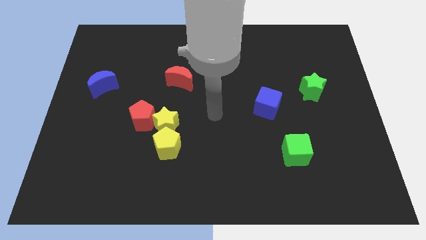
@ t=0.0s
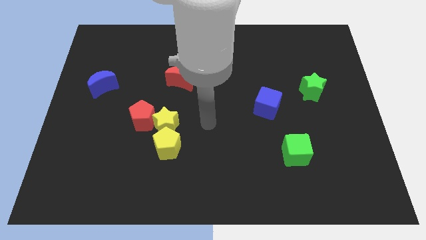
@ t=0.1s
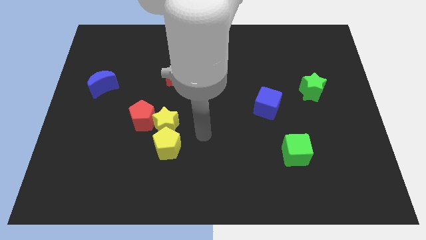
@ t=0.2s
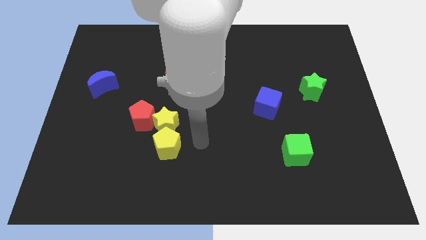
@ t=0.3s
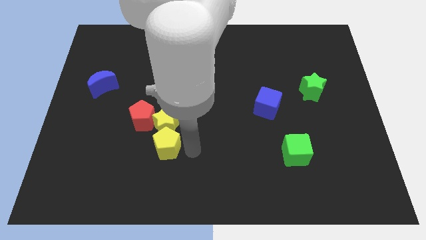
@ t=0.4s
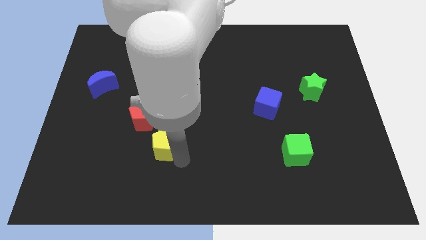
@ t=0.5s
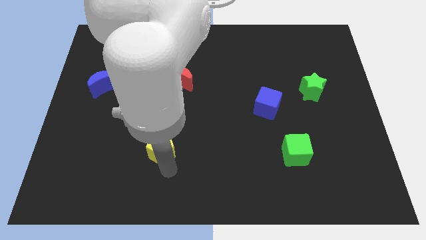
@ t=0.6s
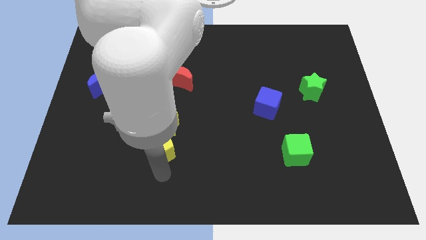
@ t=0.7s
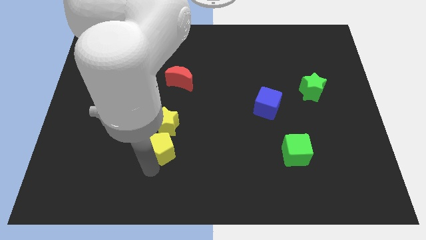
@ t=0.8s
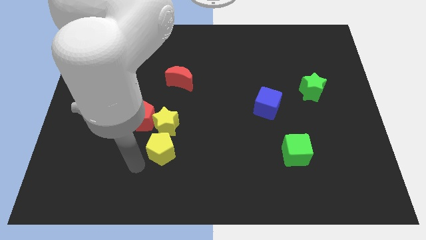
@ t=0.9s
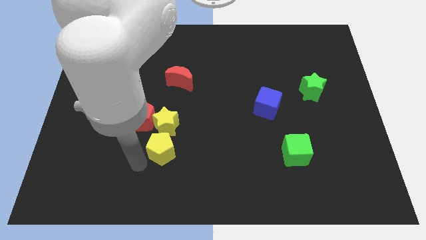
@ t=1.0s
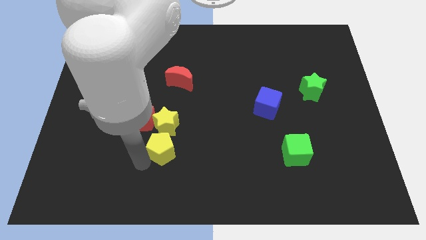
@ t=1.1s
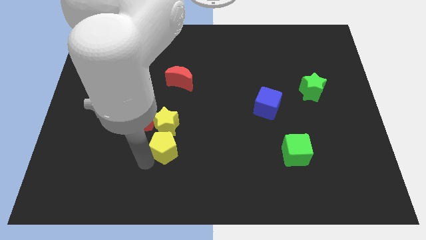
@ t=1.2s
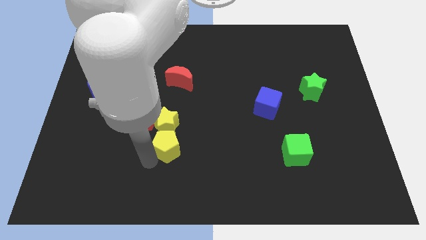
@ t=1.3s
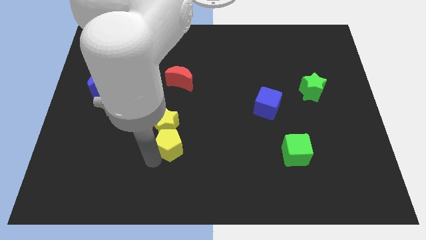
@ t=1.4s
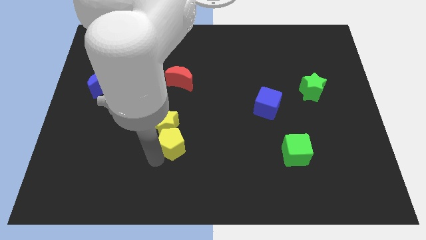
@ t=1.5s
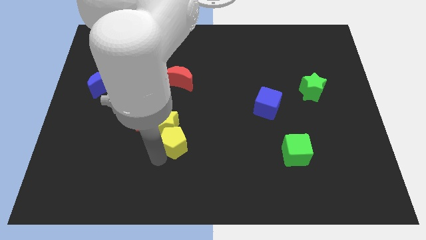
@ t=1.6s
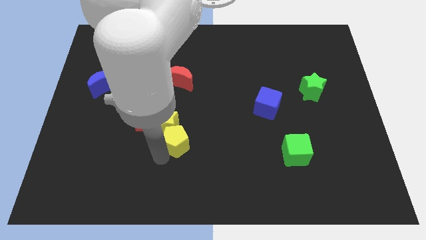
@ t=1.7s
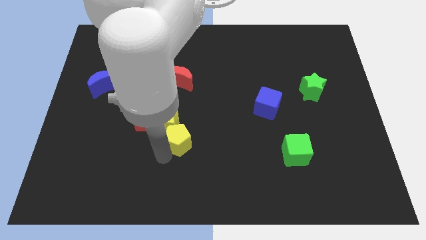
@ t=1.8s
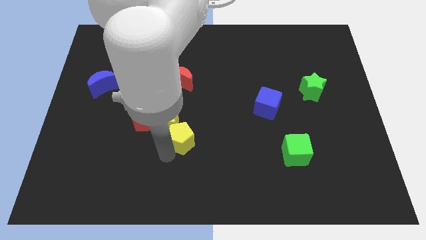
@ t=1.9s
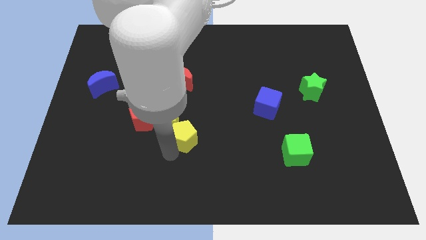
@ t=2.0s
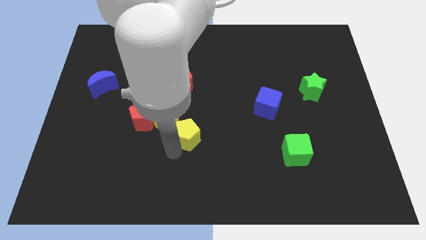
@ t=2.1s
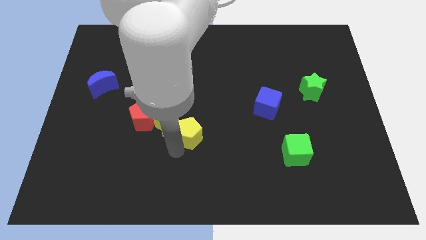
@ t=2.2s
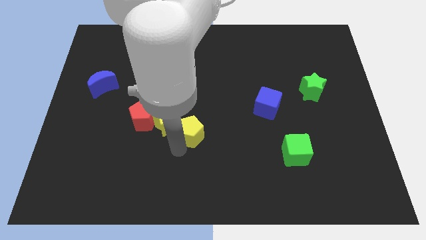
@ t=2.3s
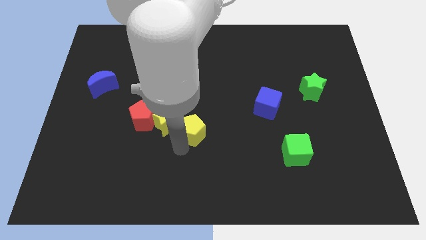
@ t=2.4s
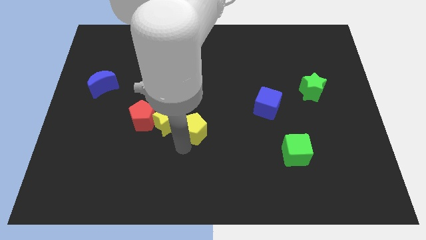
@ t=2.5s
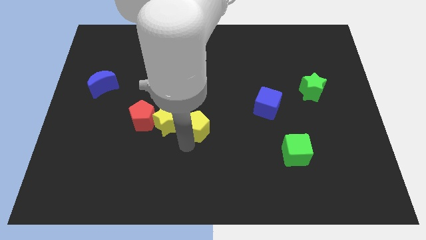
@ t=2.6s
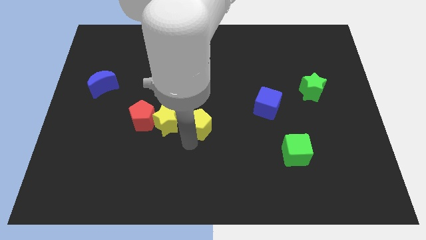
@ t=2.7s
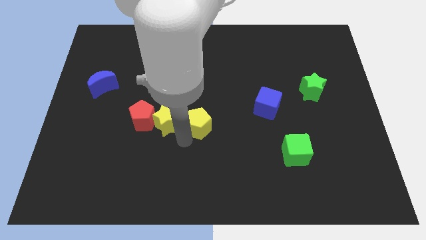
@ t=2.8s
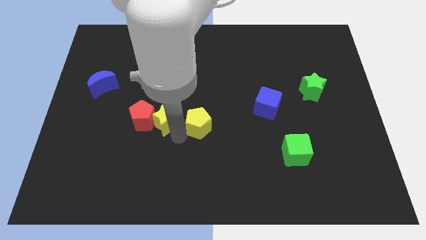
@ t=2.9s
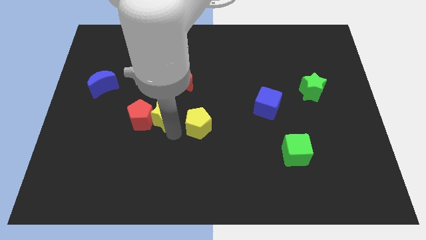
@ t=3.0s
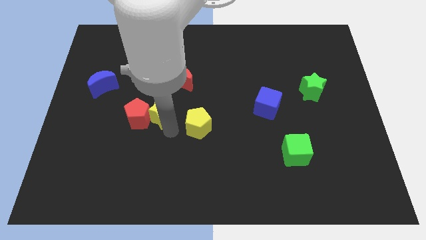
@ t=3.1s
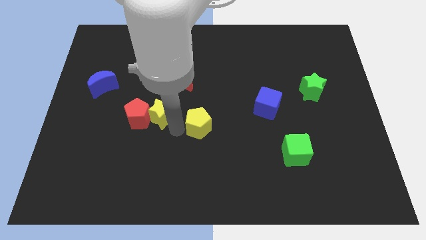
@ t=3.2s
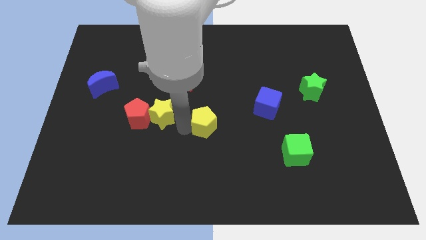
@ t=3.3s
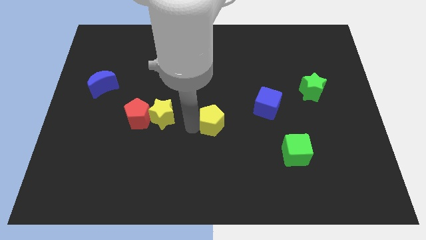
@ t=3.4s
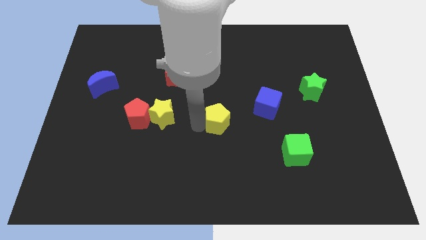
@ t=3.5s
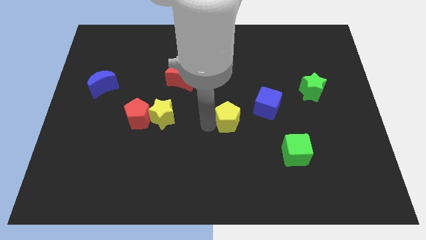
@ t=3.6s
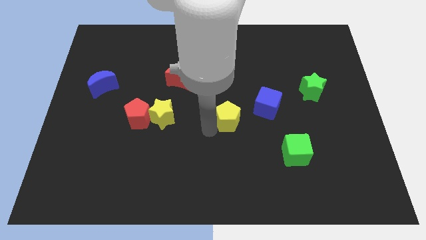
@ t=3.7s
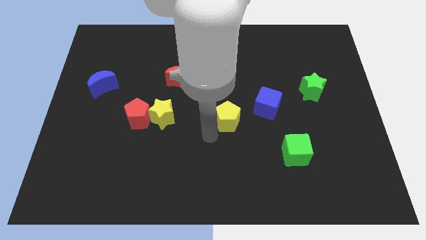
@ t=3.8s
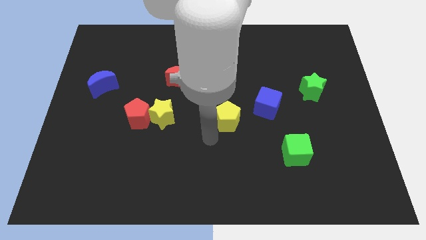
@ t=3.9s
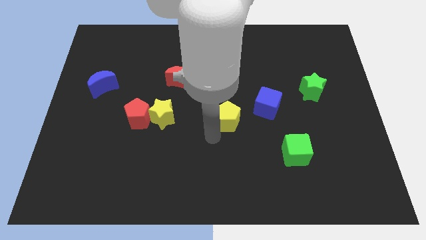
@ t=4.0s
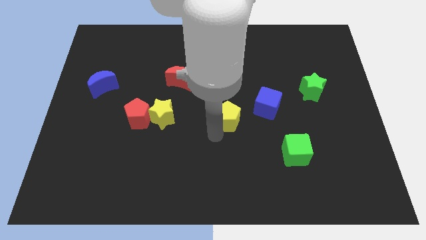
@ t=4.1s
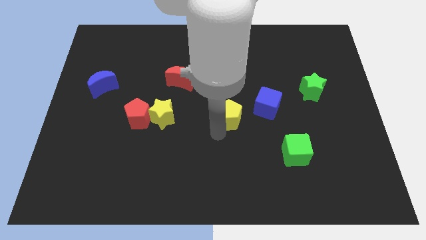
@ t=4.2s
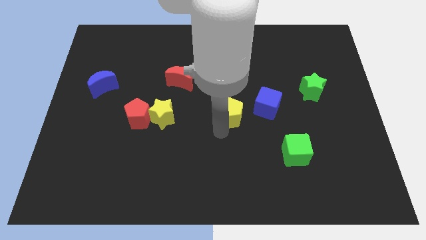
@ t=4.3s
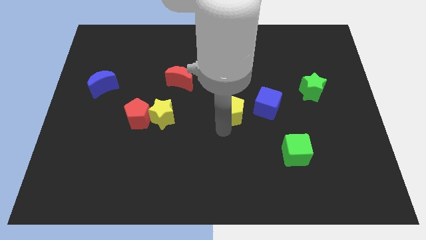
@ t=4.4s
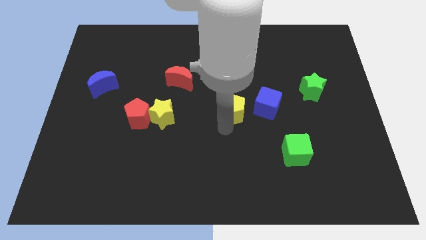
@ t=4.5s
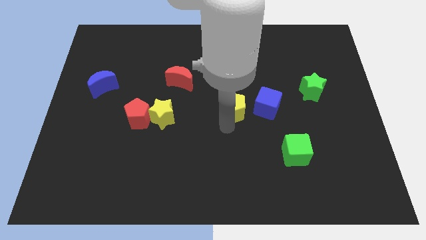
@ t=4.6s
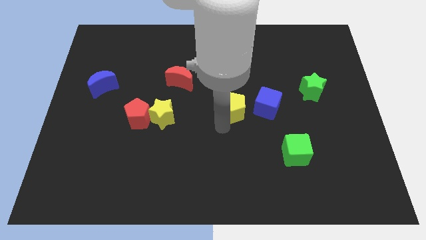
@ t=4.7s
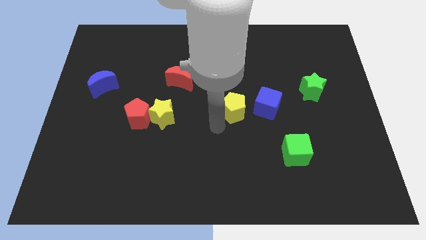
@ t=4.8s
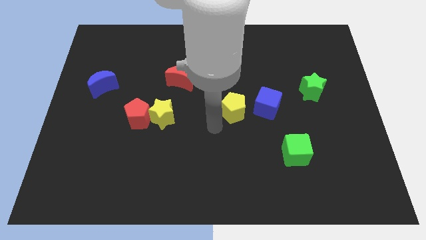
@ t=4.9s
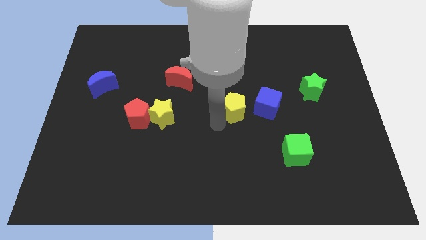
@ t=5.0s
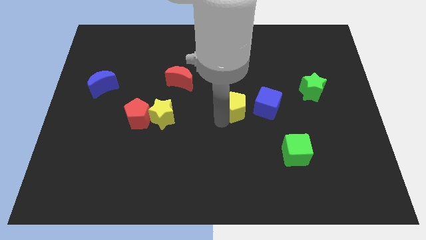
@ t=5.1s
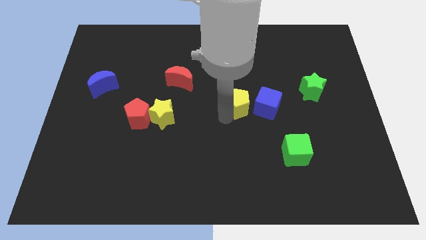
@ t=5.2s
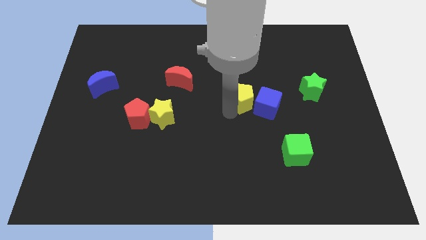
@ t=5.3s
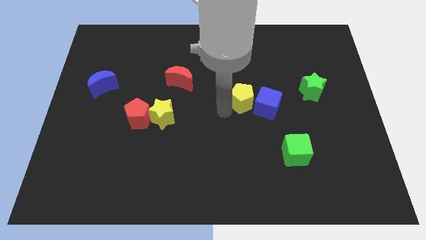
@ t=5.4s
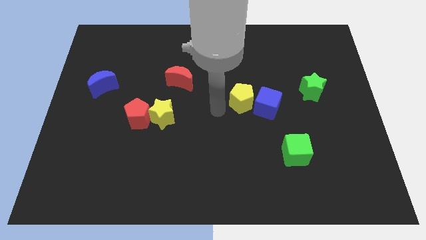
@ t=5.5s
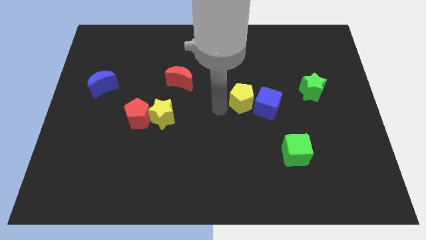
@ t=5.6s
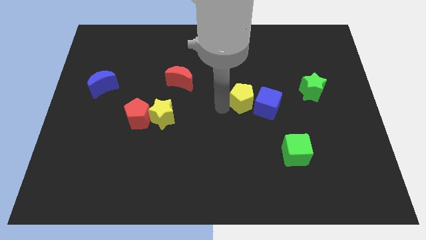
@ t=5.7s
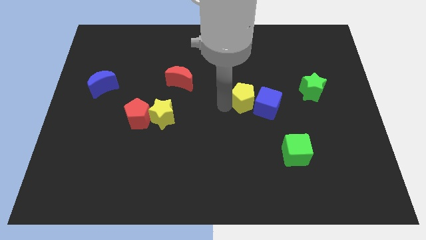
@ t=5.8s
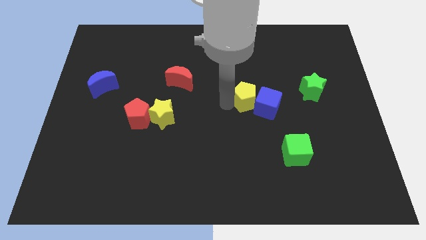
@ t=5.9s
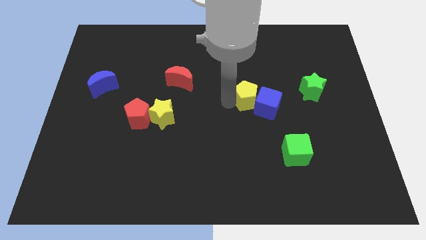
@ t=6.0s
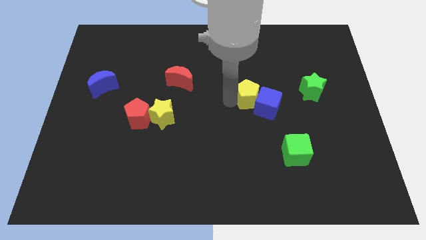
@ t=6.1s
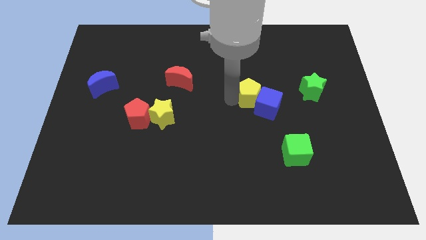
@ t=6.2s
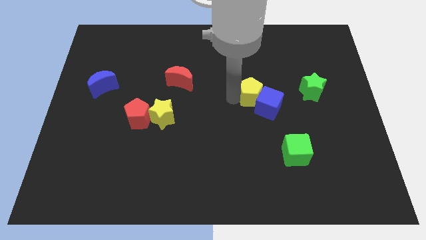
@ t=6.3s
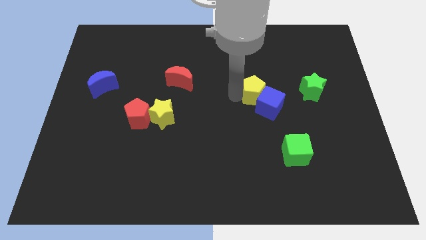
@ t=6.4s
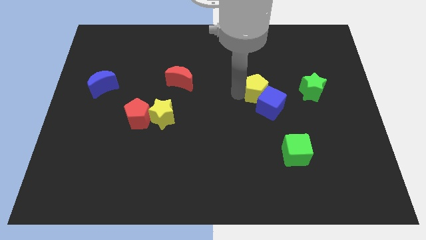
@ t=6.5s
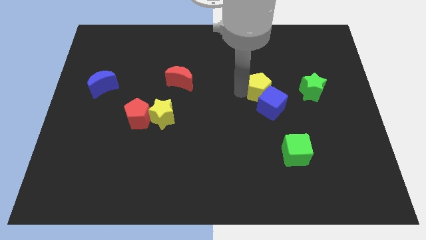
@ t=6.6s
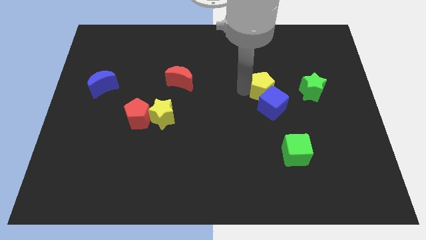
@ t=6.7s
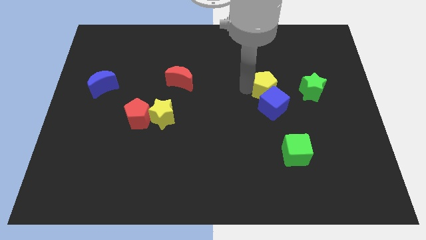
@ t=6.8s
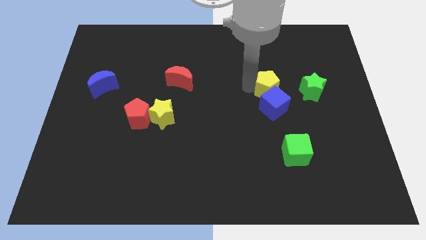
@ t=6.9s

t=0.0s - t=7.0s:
put the yellow pentagon to the top right side of the blue cube

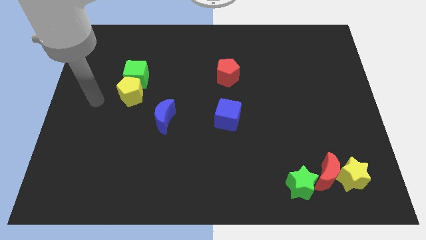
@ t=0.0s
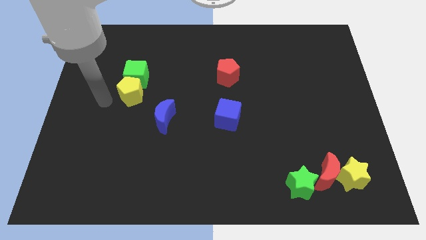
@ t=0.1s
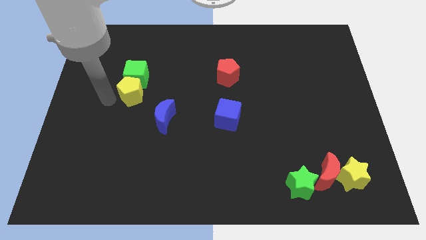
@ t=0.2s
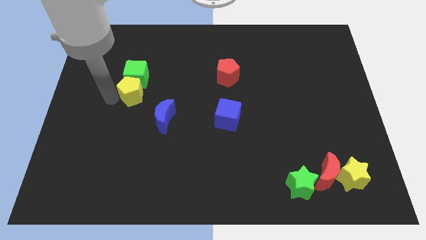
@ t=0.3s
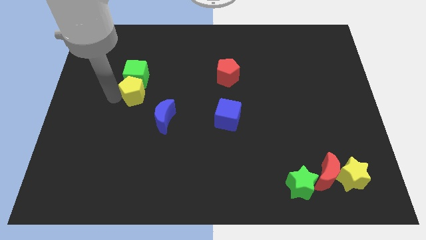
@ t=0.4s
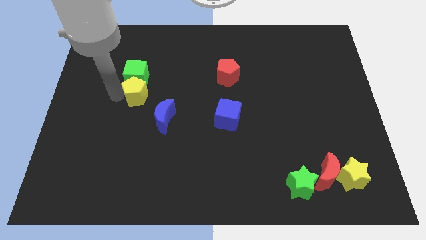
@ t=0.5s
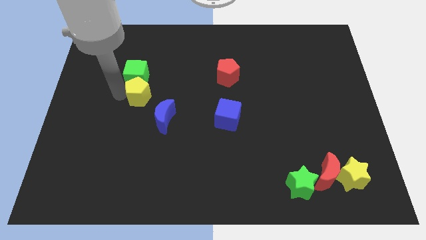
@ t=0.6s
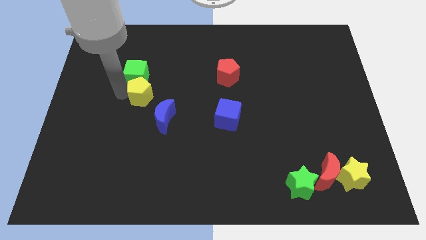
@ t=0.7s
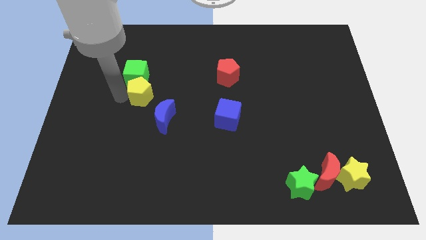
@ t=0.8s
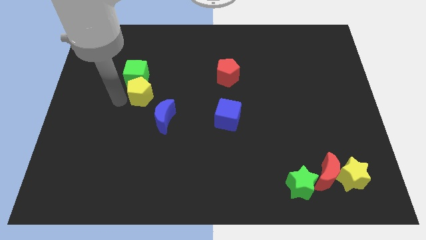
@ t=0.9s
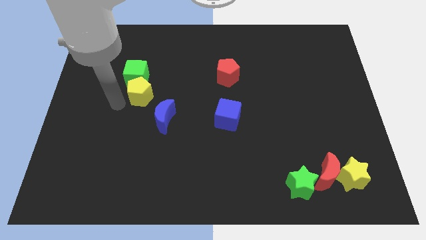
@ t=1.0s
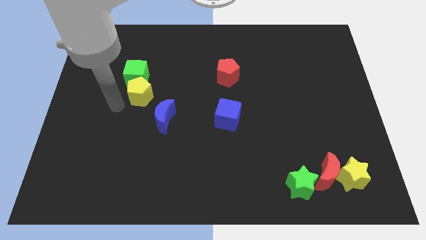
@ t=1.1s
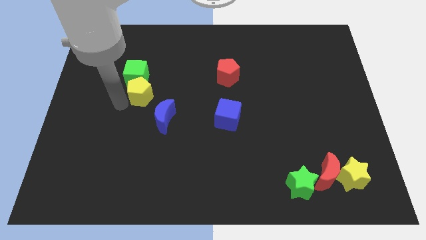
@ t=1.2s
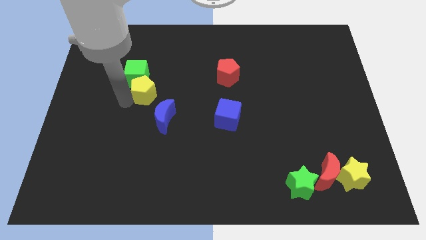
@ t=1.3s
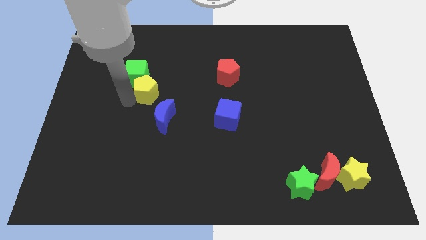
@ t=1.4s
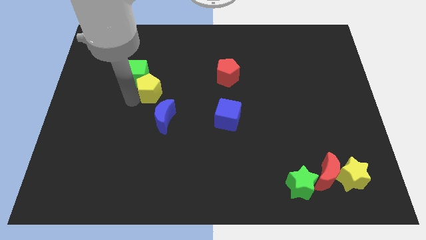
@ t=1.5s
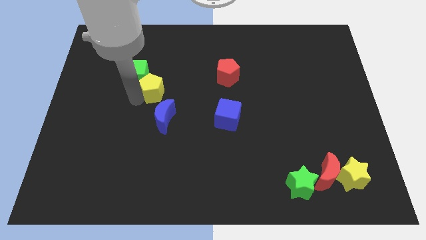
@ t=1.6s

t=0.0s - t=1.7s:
put the yellow pentagon just right of the green cube
